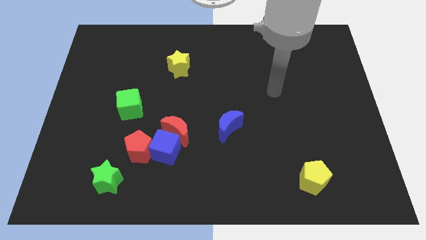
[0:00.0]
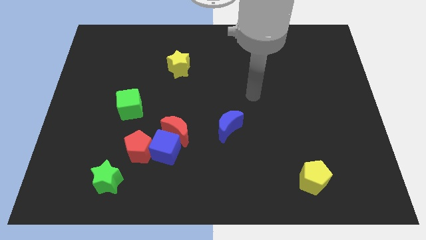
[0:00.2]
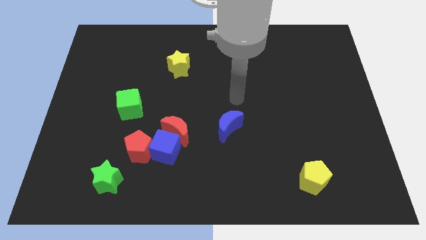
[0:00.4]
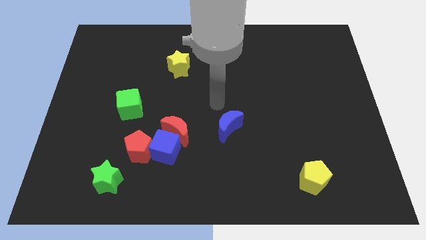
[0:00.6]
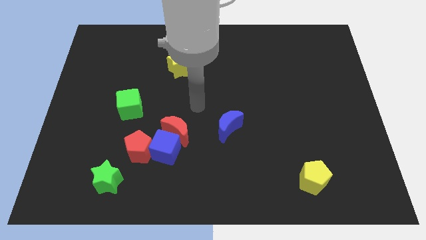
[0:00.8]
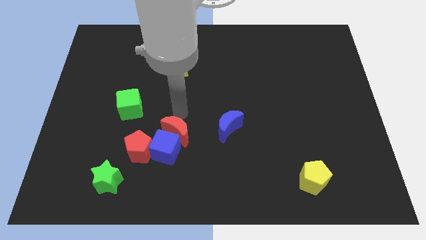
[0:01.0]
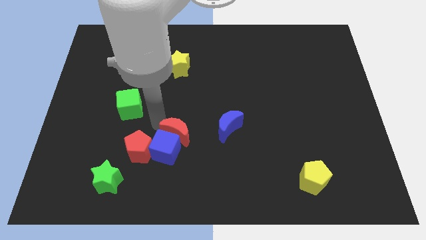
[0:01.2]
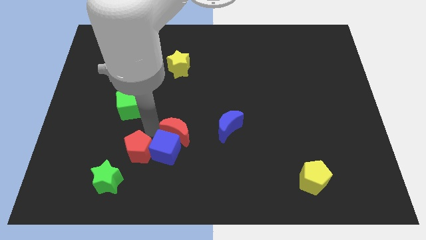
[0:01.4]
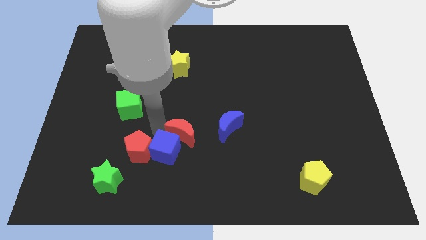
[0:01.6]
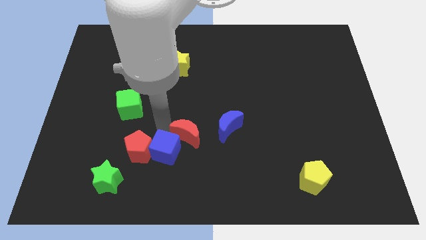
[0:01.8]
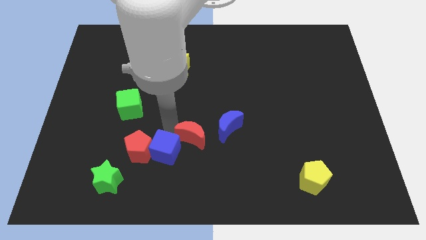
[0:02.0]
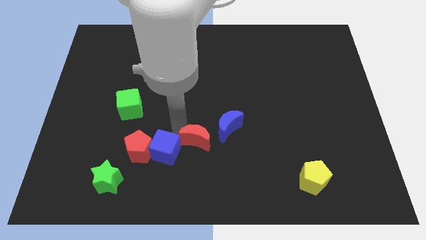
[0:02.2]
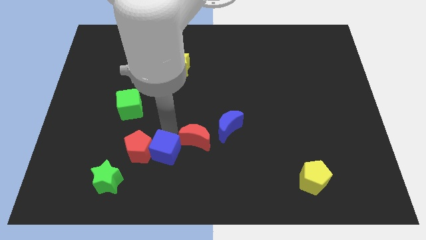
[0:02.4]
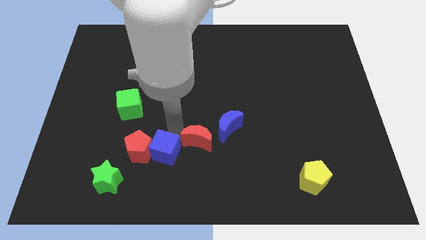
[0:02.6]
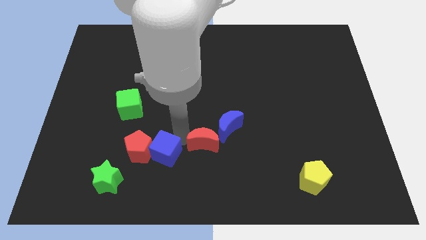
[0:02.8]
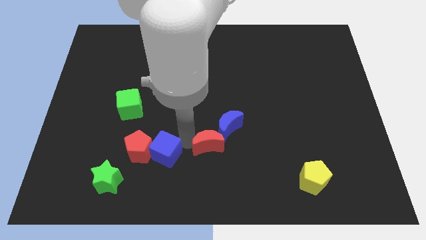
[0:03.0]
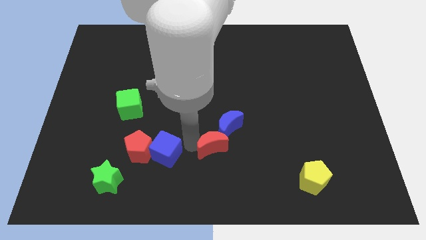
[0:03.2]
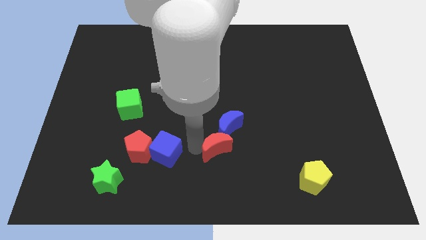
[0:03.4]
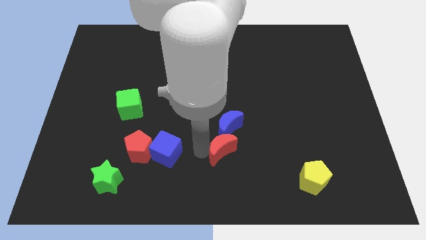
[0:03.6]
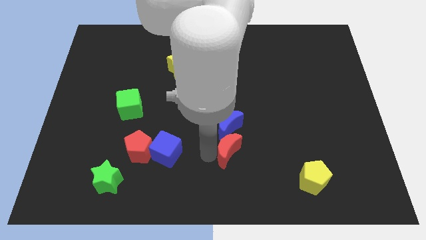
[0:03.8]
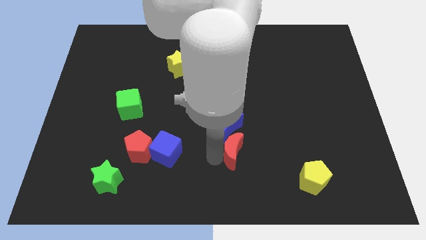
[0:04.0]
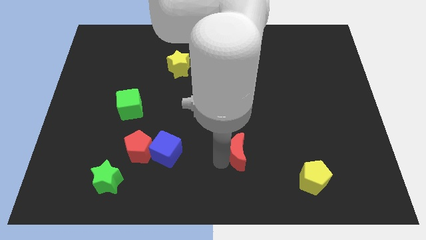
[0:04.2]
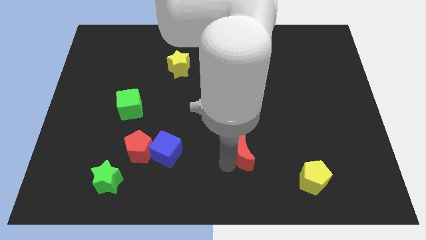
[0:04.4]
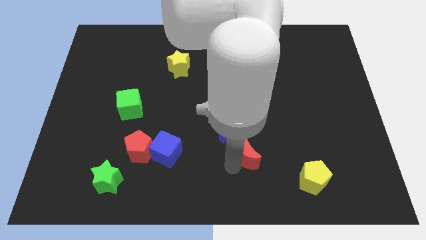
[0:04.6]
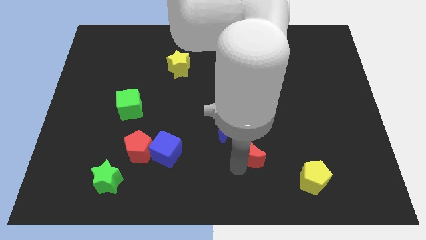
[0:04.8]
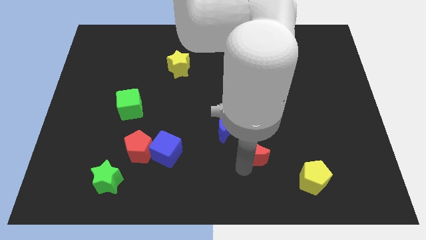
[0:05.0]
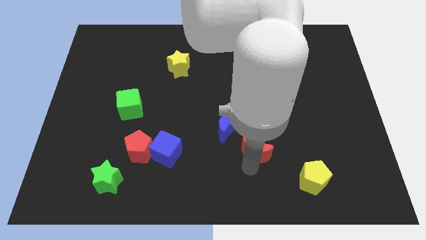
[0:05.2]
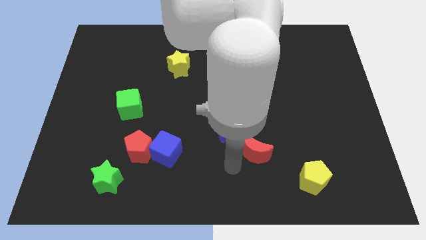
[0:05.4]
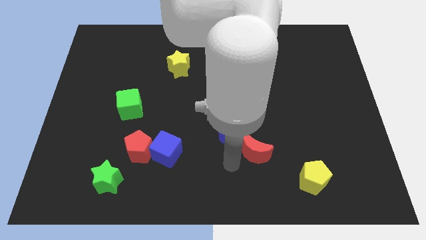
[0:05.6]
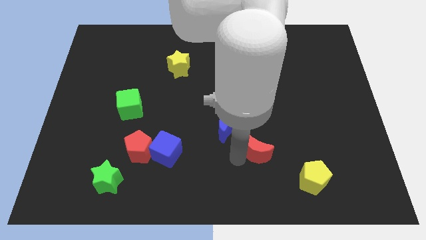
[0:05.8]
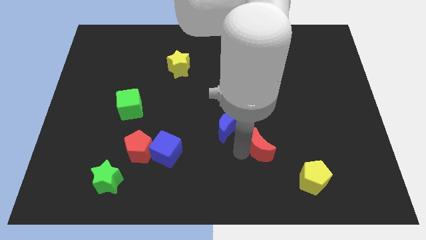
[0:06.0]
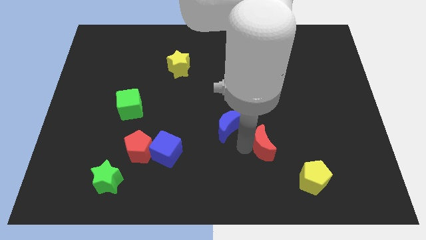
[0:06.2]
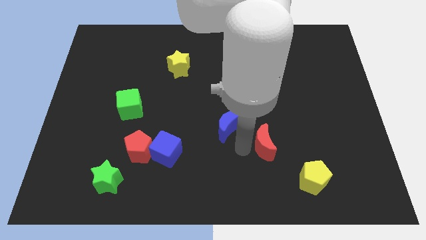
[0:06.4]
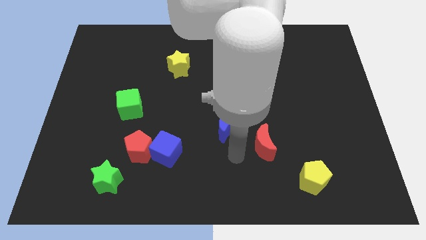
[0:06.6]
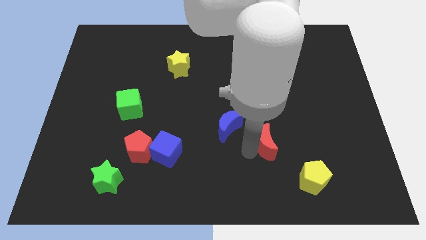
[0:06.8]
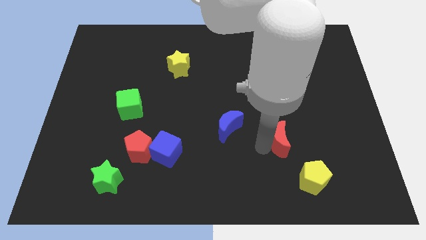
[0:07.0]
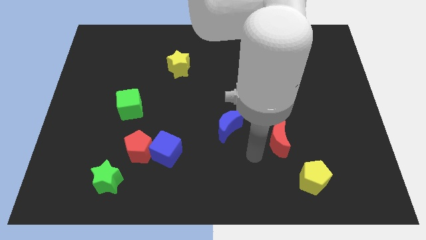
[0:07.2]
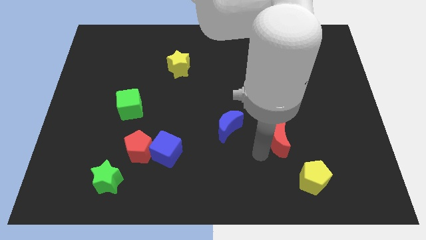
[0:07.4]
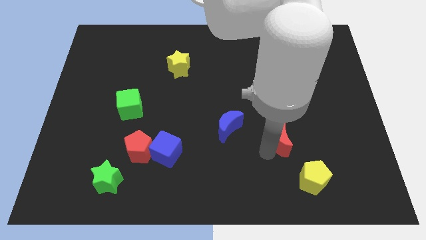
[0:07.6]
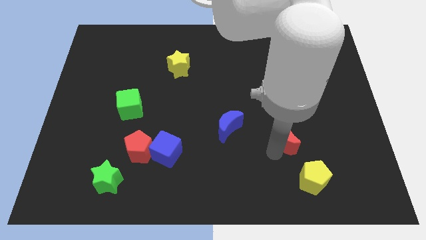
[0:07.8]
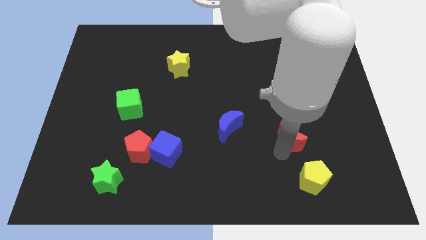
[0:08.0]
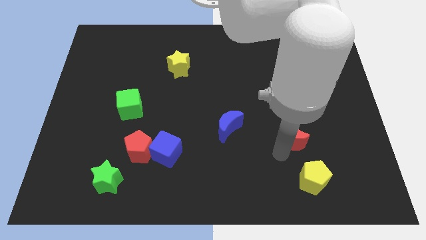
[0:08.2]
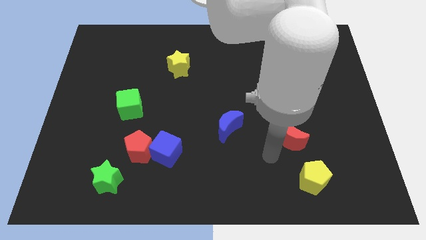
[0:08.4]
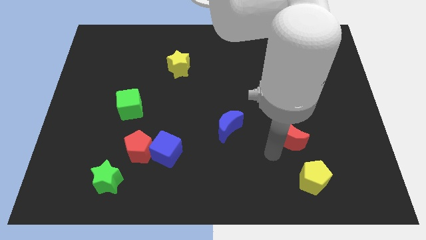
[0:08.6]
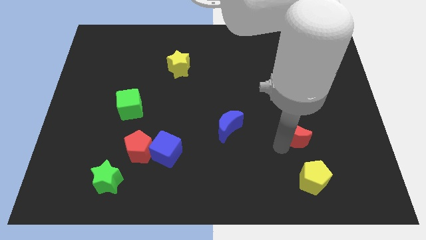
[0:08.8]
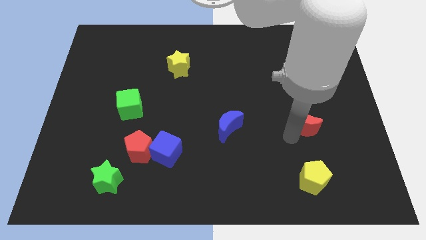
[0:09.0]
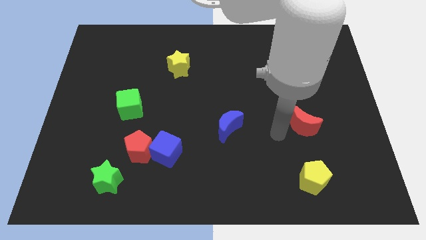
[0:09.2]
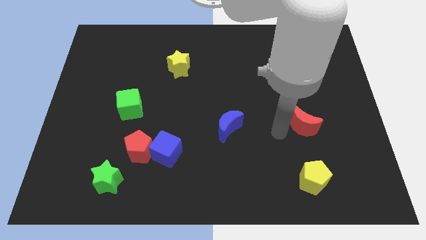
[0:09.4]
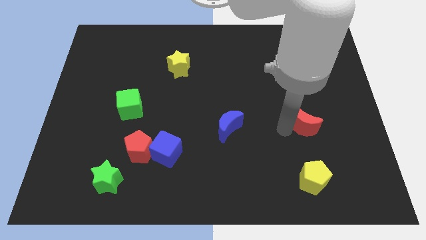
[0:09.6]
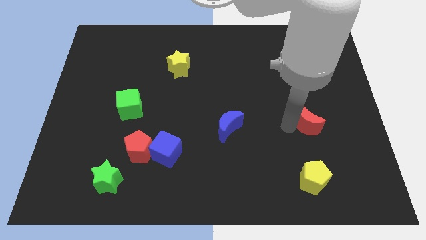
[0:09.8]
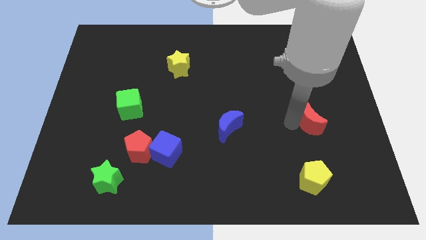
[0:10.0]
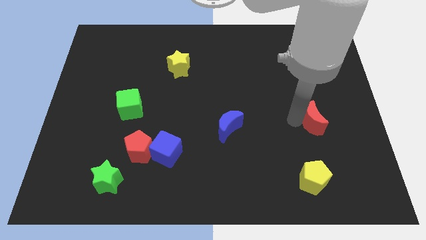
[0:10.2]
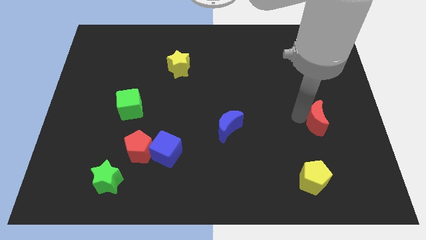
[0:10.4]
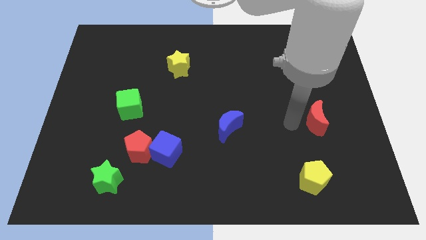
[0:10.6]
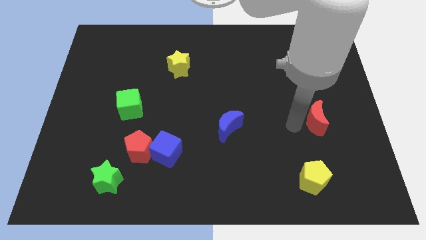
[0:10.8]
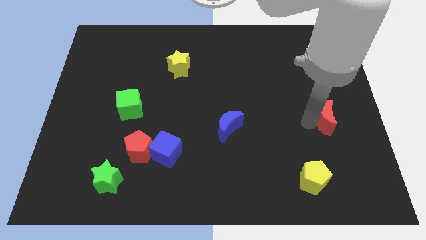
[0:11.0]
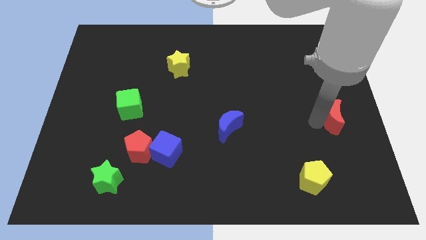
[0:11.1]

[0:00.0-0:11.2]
put the red moon to the right side
